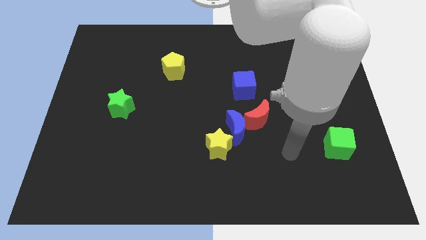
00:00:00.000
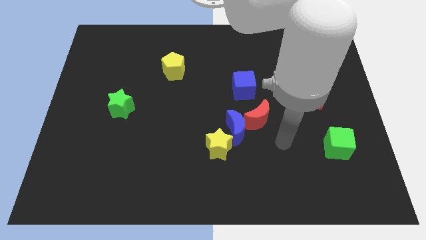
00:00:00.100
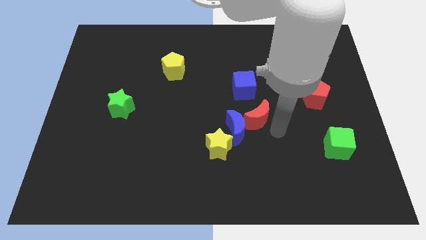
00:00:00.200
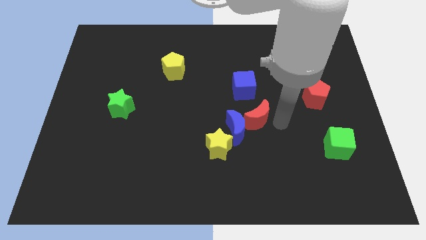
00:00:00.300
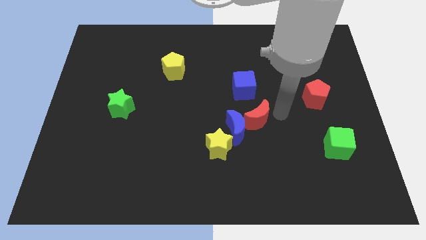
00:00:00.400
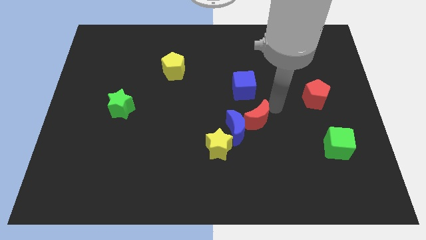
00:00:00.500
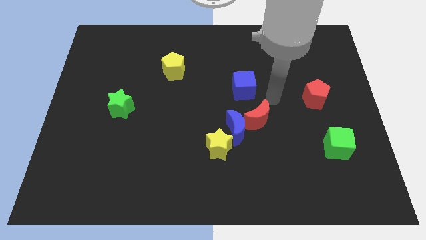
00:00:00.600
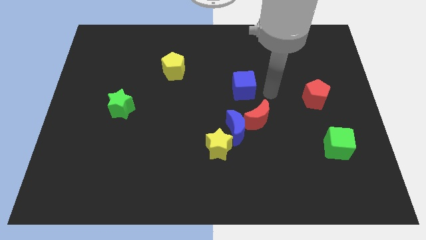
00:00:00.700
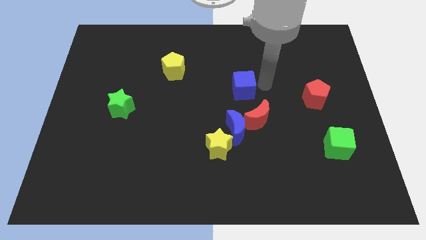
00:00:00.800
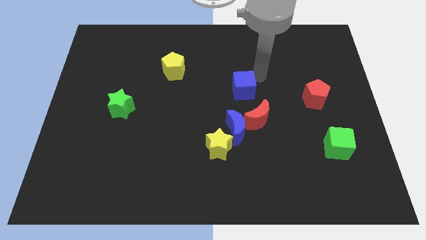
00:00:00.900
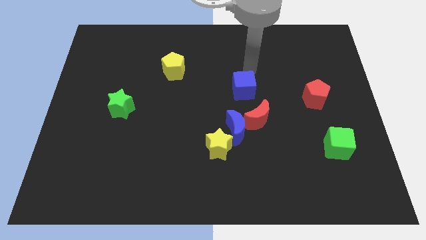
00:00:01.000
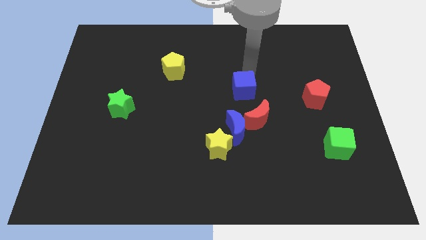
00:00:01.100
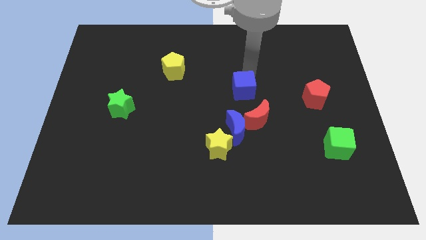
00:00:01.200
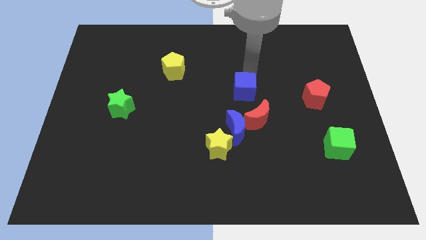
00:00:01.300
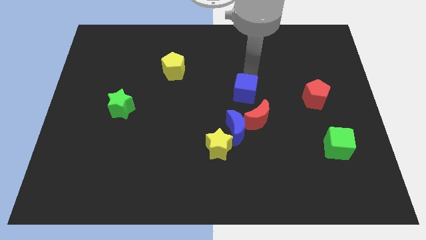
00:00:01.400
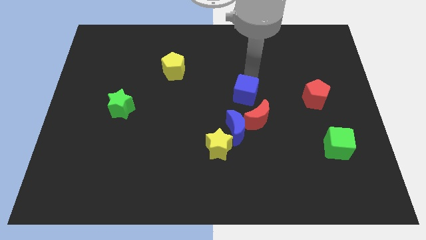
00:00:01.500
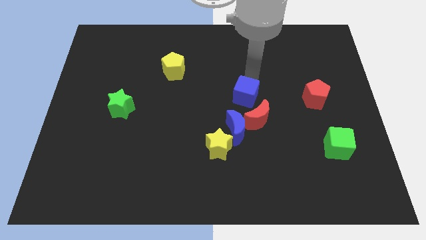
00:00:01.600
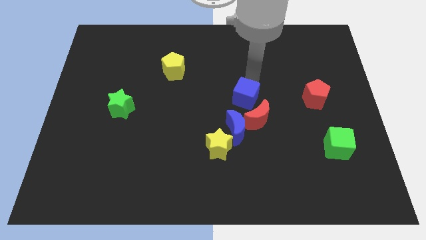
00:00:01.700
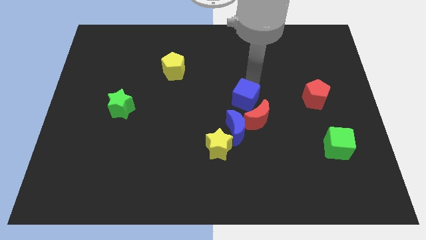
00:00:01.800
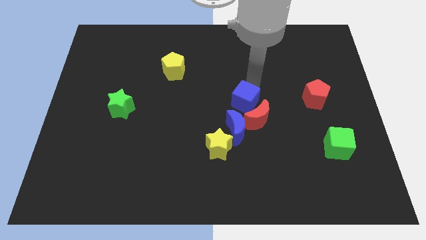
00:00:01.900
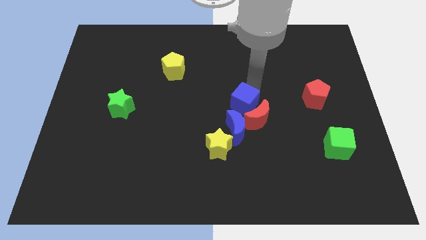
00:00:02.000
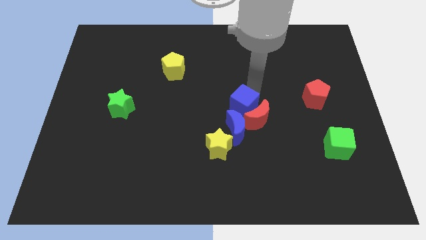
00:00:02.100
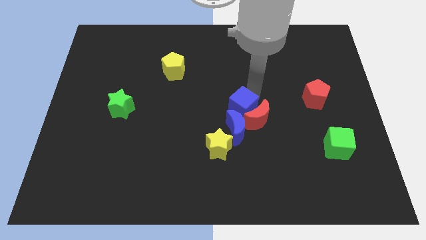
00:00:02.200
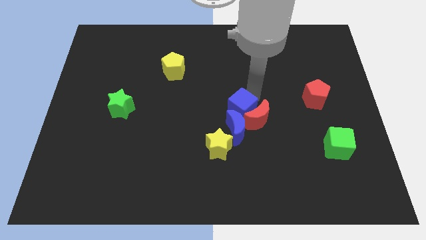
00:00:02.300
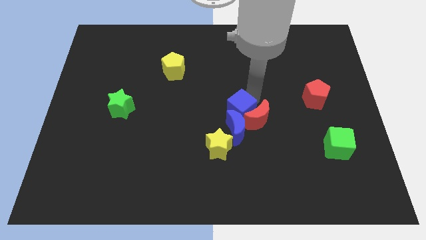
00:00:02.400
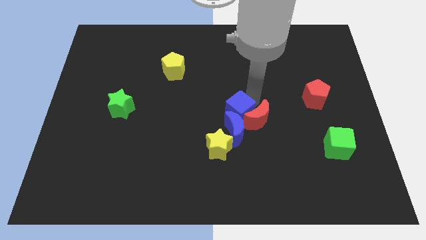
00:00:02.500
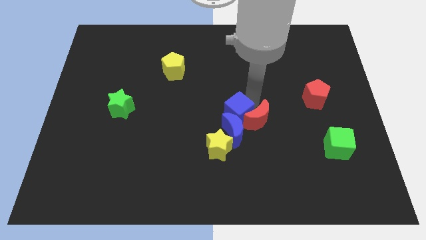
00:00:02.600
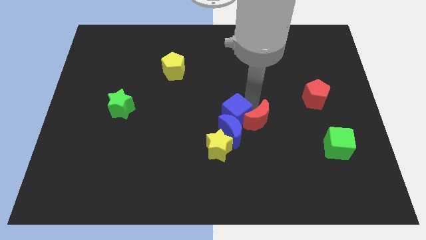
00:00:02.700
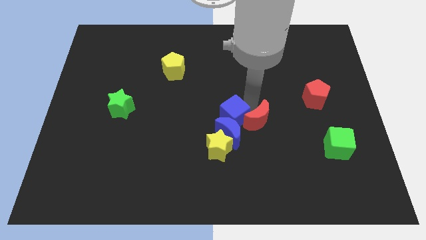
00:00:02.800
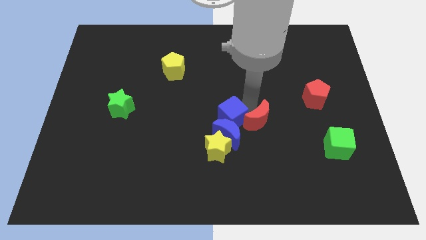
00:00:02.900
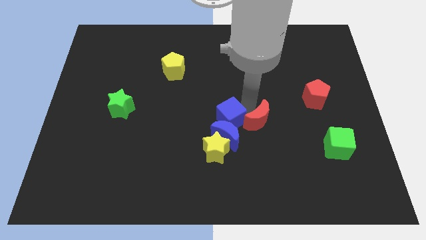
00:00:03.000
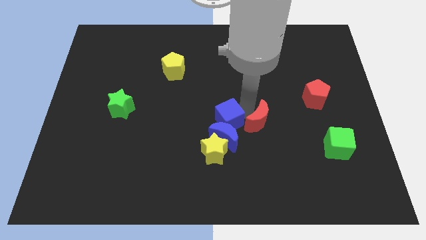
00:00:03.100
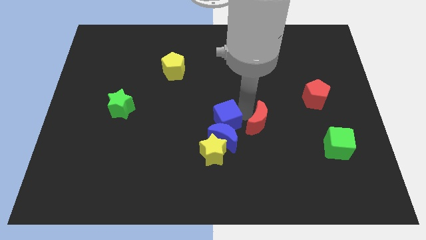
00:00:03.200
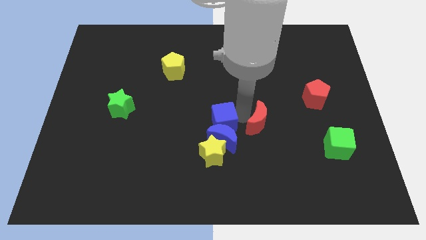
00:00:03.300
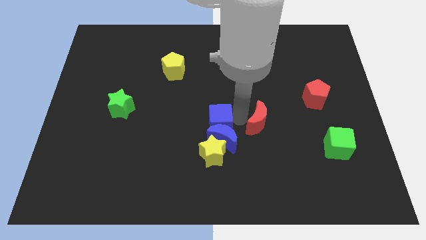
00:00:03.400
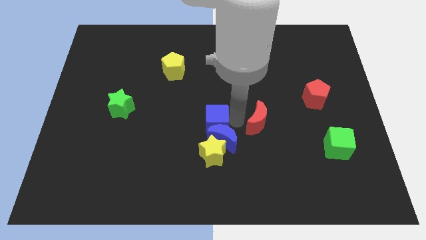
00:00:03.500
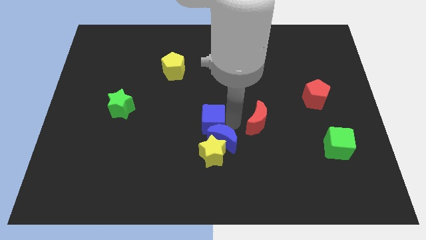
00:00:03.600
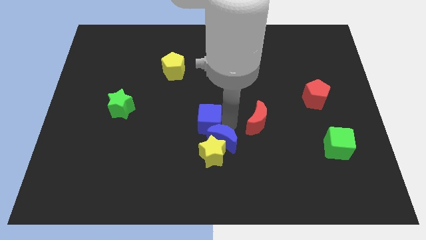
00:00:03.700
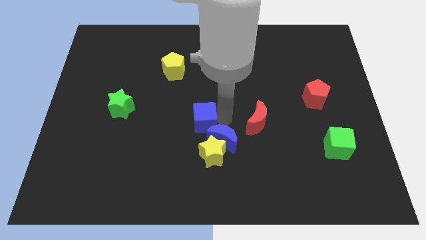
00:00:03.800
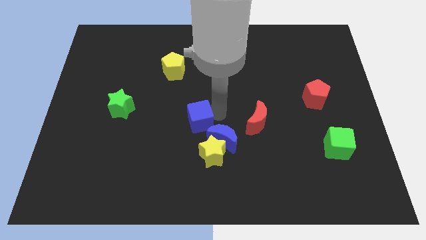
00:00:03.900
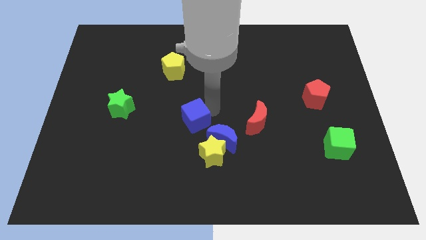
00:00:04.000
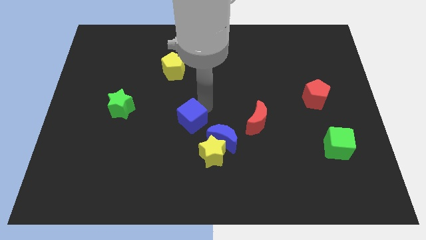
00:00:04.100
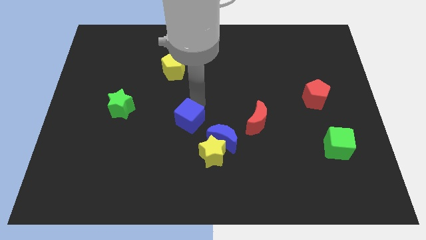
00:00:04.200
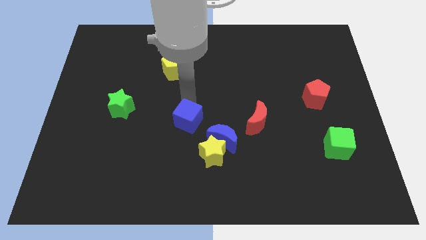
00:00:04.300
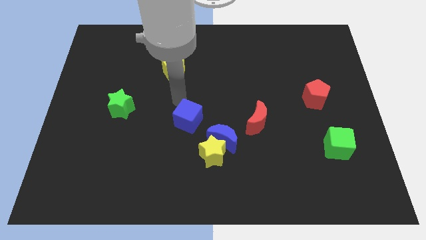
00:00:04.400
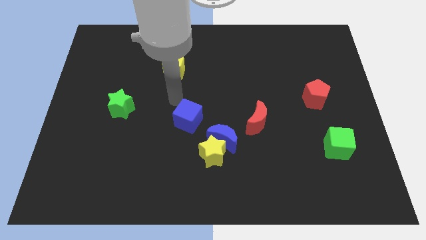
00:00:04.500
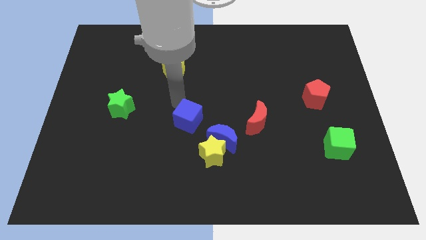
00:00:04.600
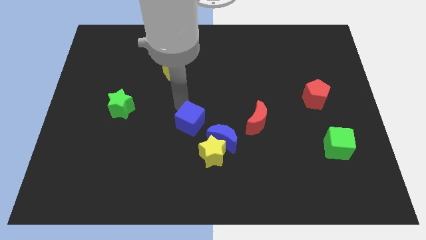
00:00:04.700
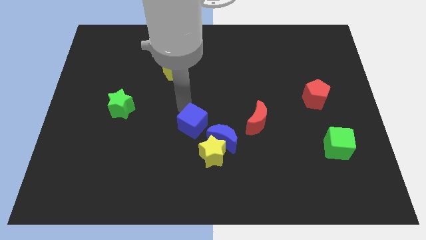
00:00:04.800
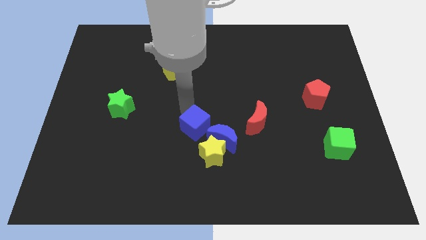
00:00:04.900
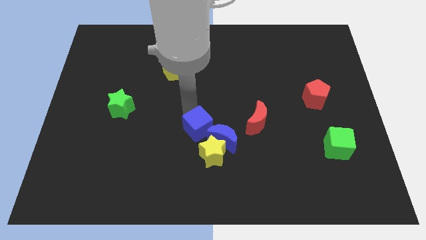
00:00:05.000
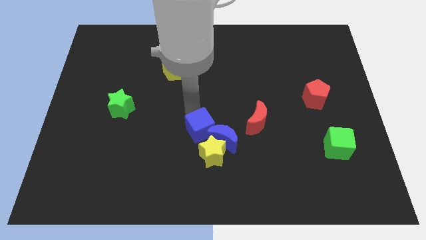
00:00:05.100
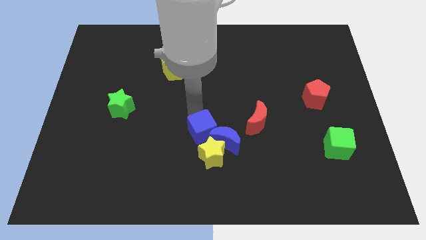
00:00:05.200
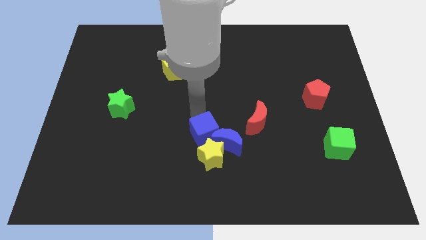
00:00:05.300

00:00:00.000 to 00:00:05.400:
put the blue cube to the yellow star

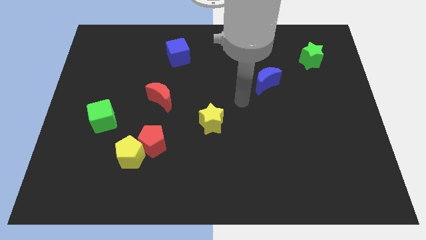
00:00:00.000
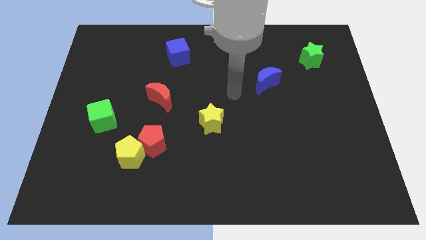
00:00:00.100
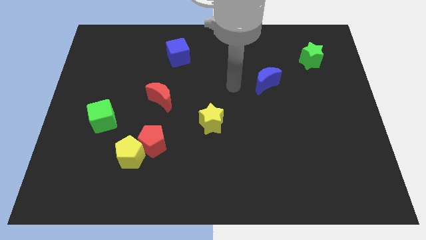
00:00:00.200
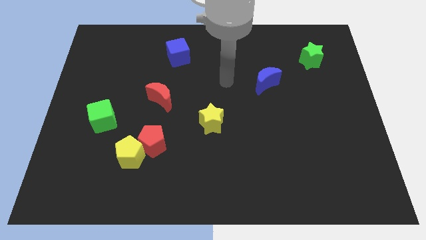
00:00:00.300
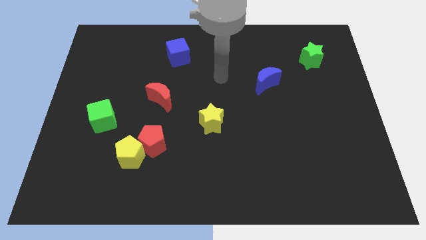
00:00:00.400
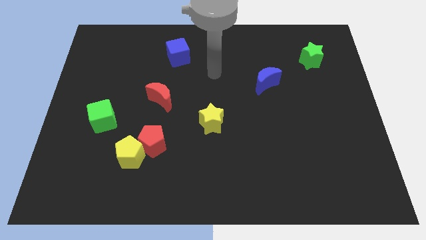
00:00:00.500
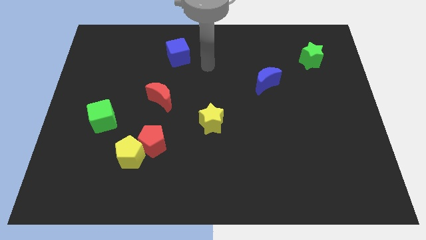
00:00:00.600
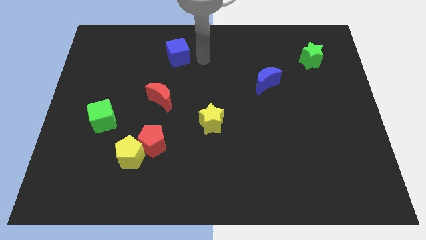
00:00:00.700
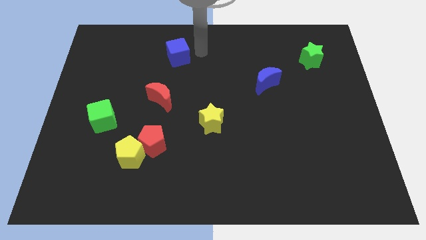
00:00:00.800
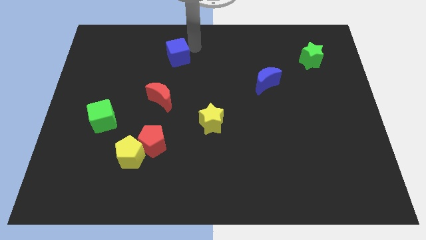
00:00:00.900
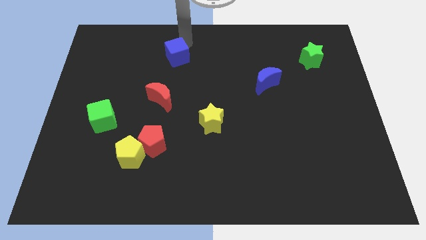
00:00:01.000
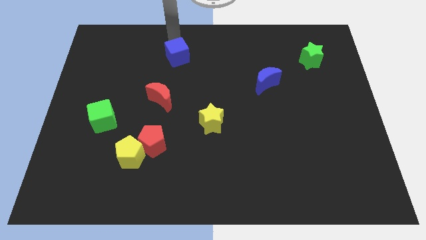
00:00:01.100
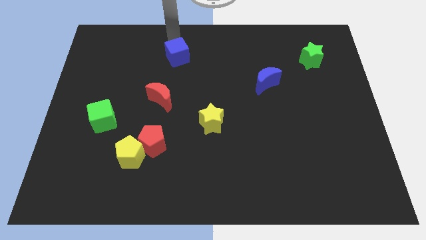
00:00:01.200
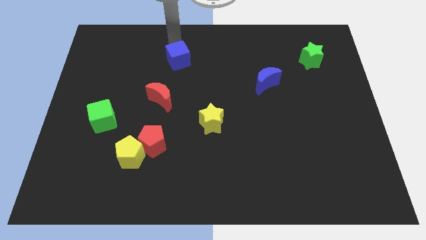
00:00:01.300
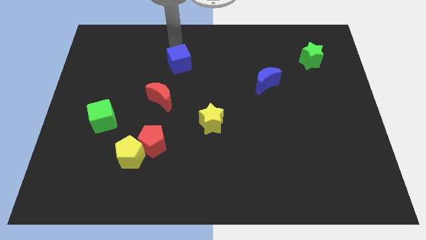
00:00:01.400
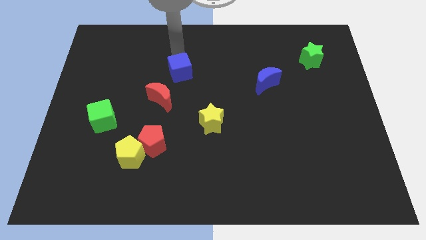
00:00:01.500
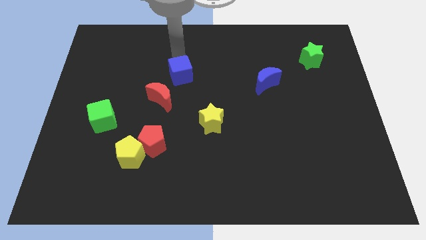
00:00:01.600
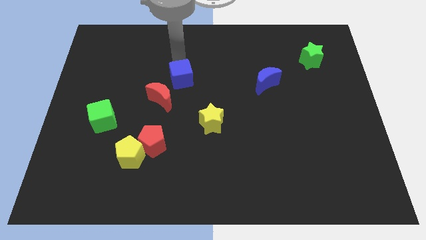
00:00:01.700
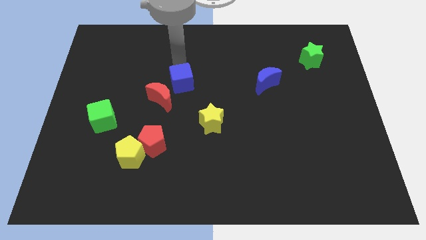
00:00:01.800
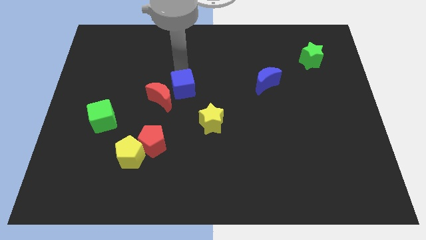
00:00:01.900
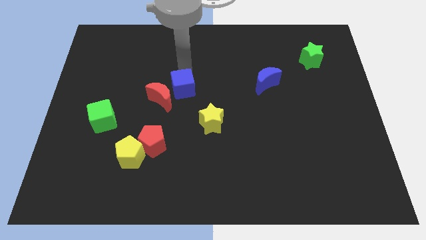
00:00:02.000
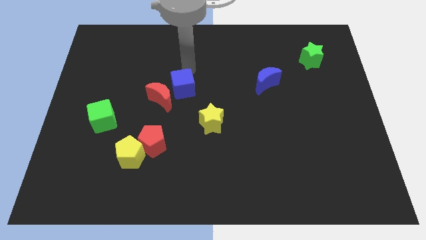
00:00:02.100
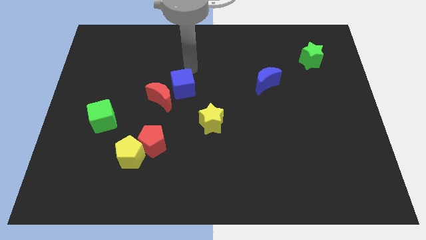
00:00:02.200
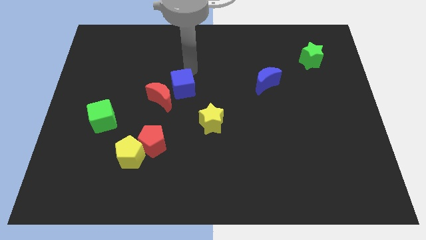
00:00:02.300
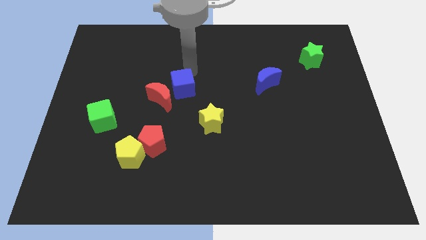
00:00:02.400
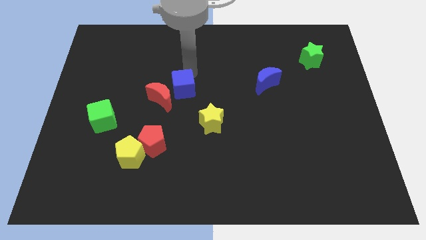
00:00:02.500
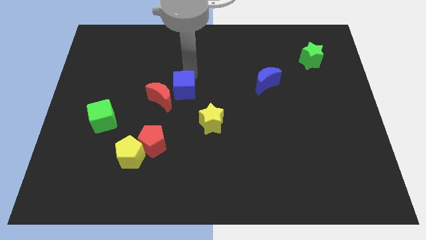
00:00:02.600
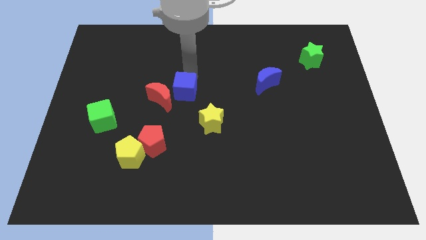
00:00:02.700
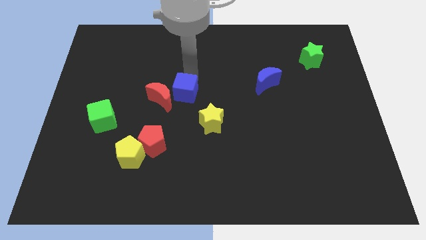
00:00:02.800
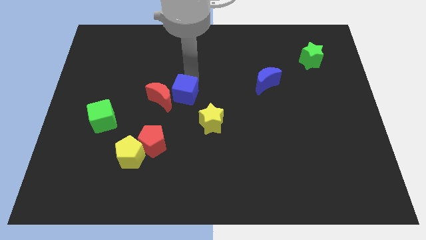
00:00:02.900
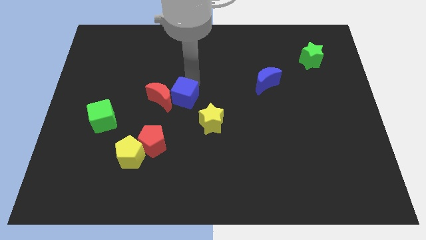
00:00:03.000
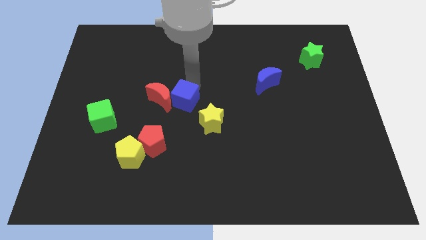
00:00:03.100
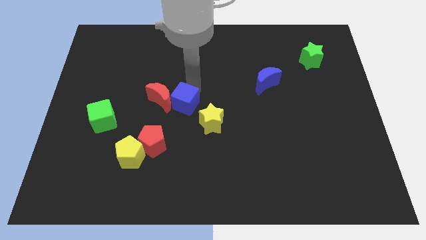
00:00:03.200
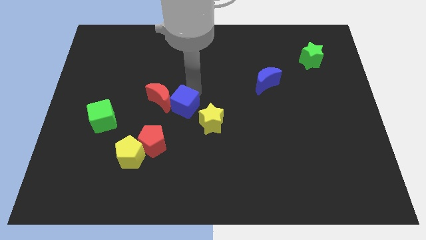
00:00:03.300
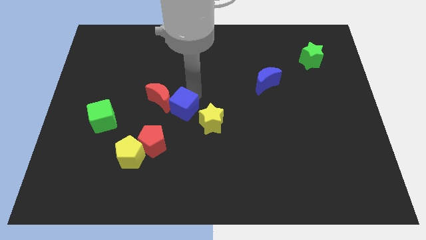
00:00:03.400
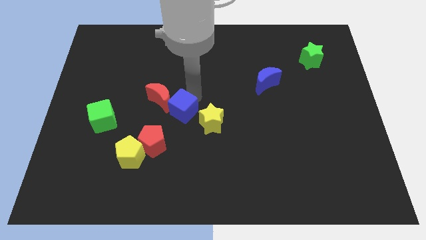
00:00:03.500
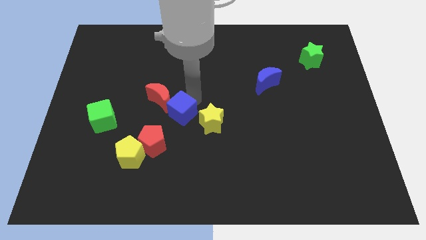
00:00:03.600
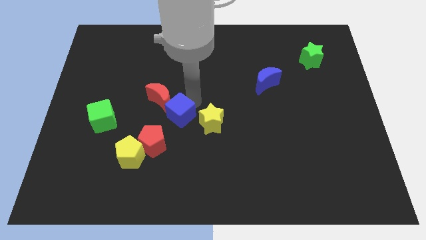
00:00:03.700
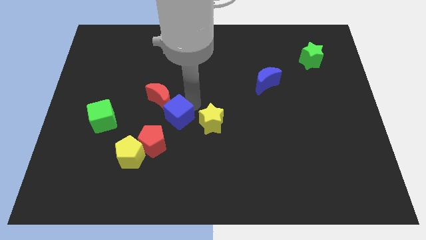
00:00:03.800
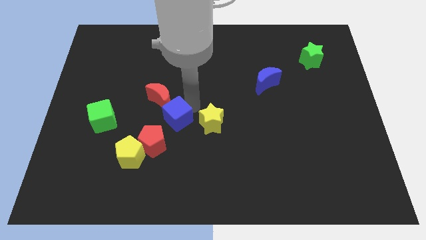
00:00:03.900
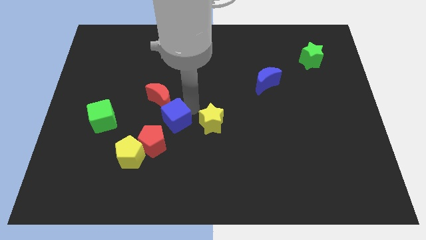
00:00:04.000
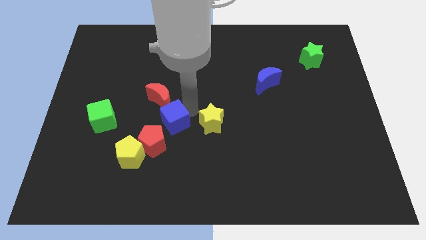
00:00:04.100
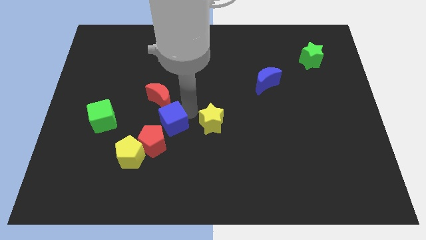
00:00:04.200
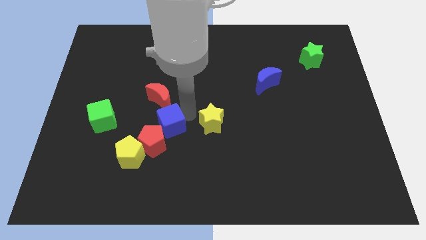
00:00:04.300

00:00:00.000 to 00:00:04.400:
slide the blue cube next to the red pentagon
